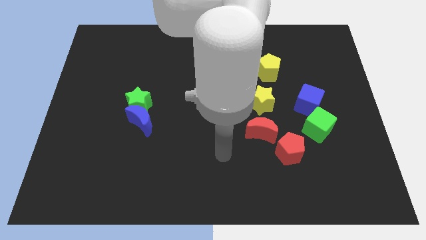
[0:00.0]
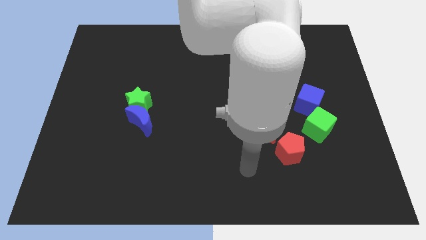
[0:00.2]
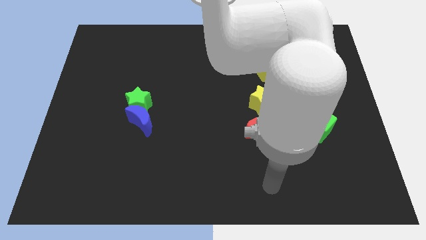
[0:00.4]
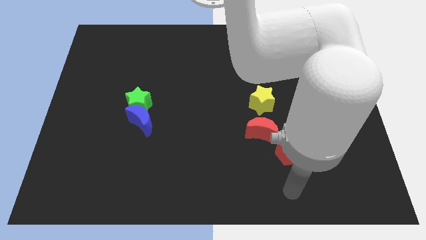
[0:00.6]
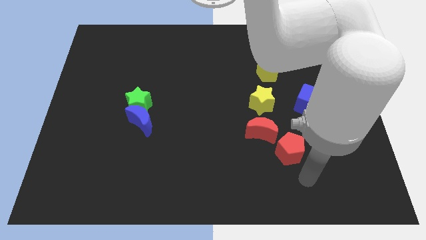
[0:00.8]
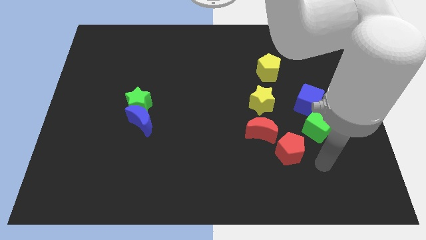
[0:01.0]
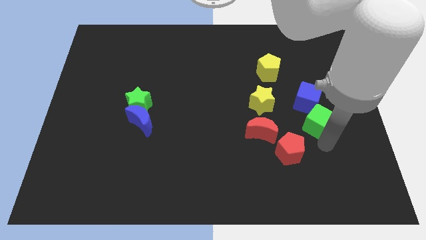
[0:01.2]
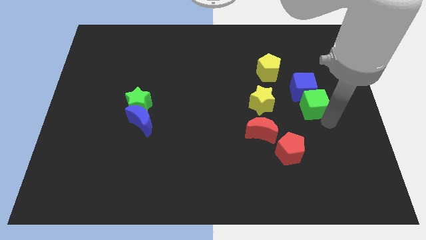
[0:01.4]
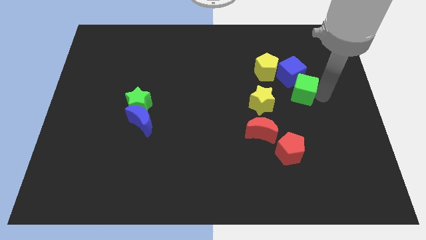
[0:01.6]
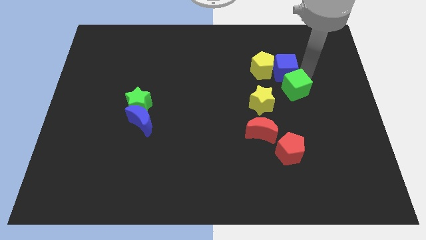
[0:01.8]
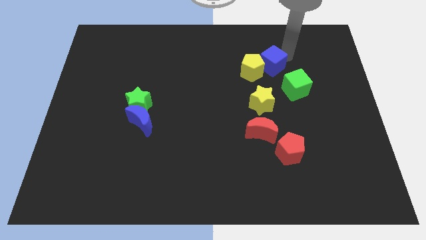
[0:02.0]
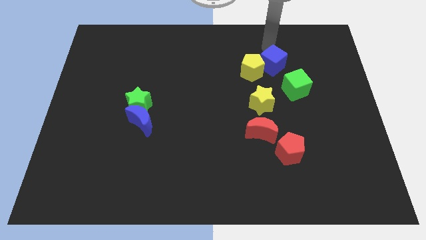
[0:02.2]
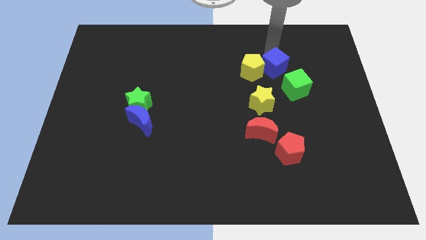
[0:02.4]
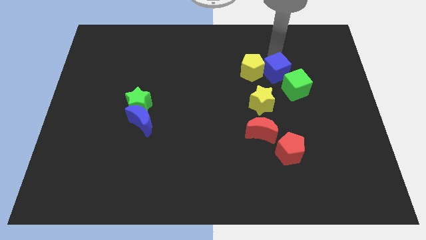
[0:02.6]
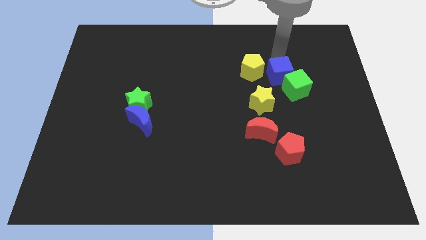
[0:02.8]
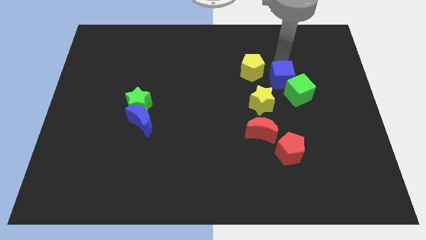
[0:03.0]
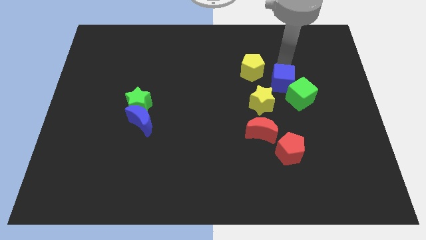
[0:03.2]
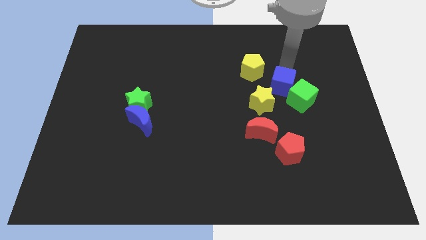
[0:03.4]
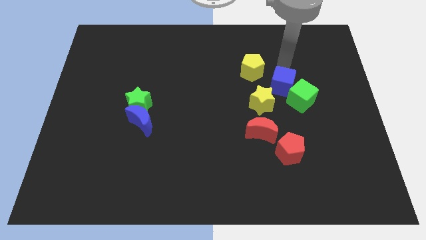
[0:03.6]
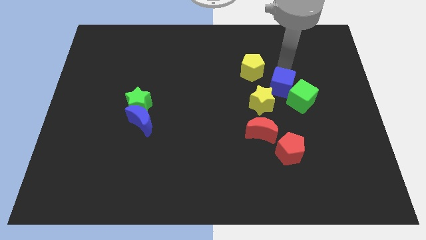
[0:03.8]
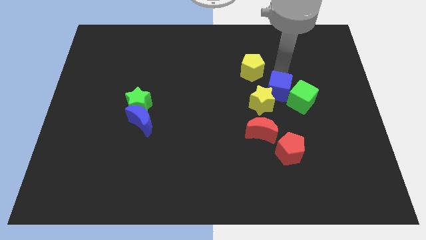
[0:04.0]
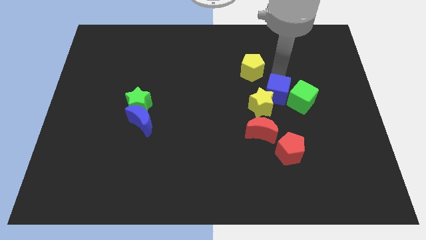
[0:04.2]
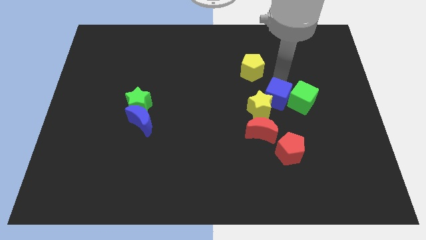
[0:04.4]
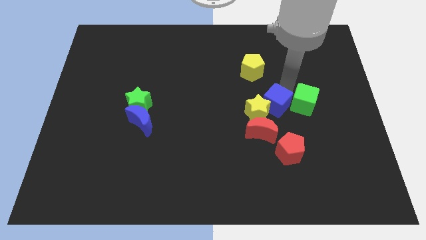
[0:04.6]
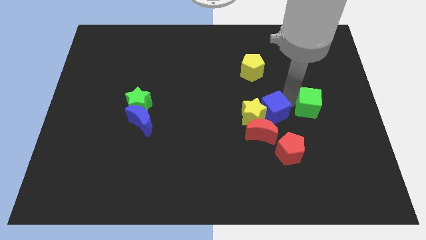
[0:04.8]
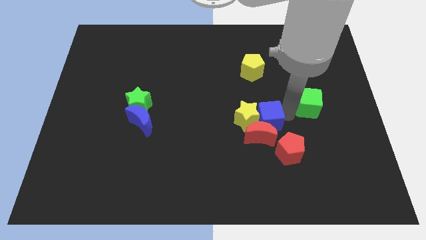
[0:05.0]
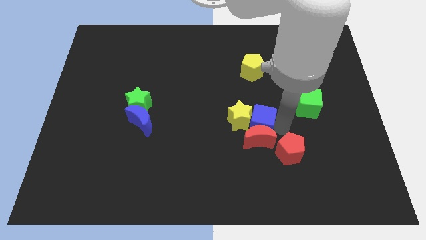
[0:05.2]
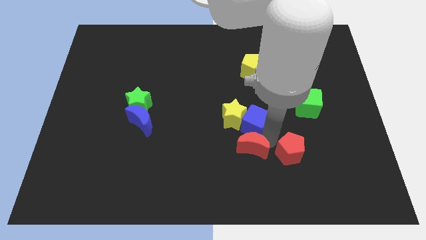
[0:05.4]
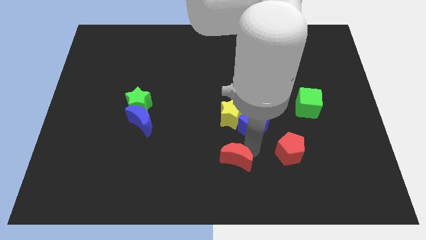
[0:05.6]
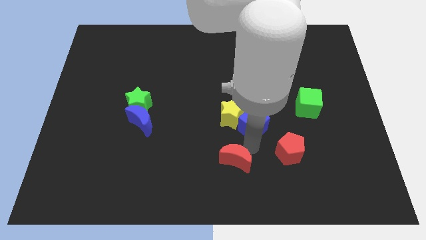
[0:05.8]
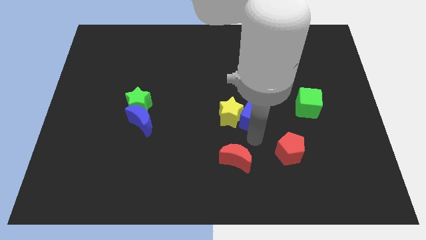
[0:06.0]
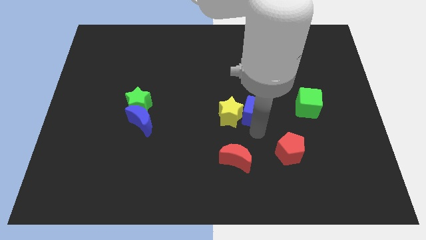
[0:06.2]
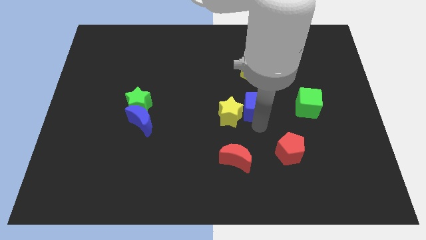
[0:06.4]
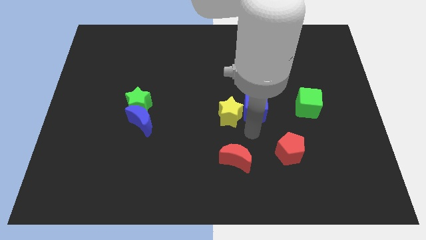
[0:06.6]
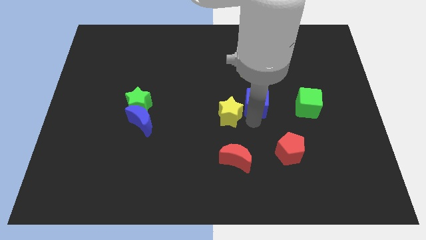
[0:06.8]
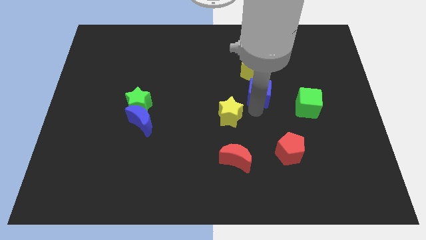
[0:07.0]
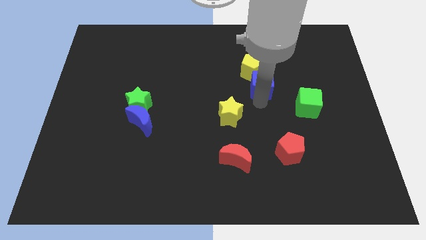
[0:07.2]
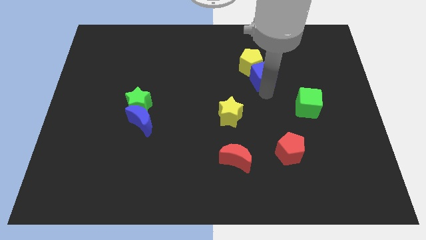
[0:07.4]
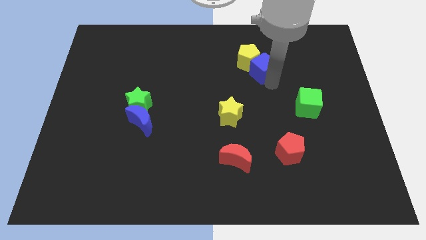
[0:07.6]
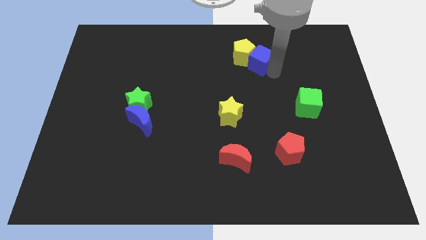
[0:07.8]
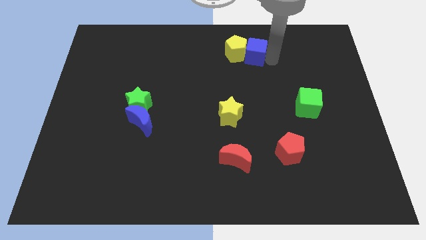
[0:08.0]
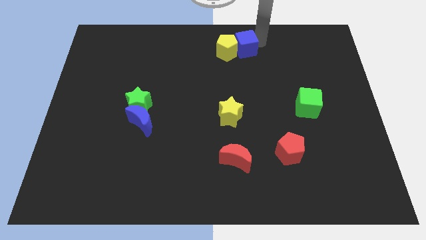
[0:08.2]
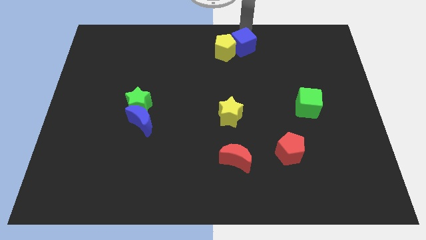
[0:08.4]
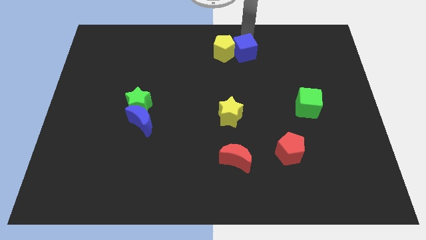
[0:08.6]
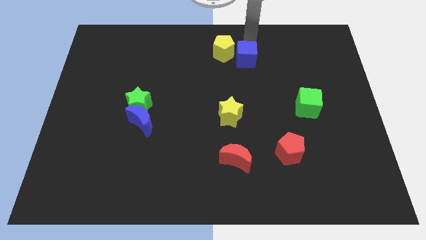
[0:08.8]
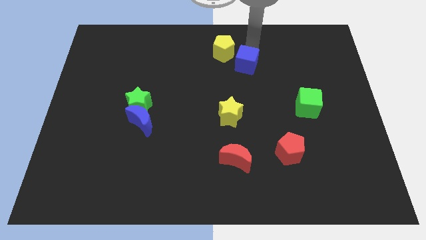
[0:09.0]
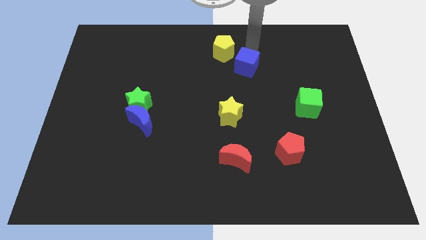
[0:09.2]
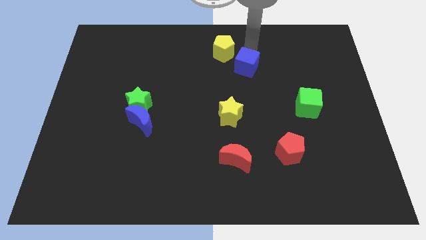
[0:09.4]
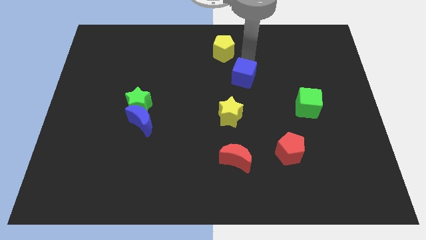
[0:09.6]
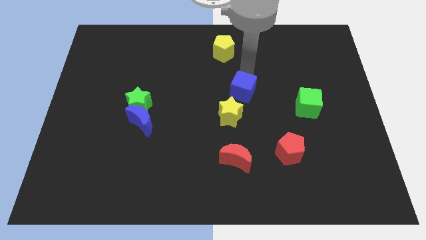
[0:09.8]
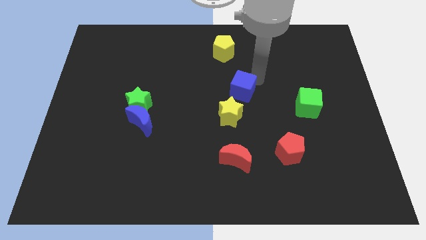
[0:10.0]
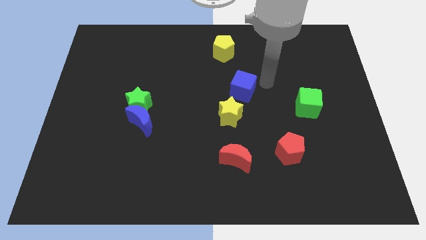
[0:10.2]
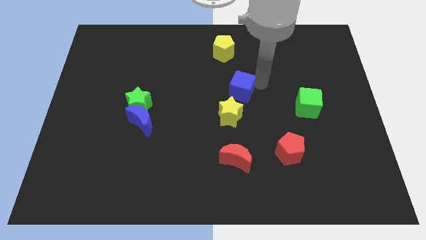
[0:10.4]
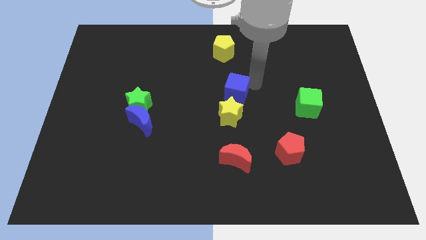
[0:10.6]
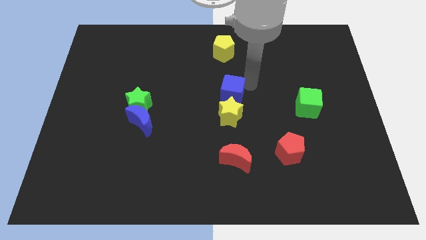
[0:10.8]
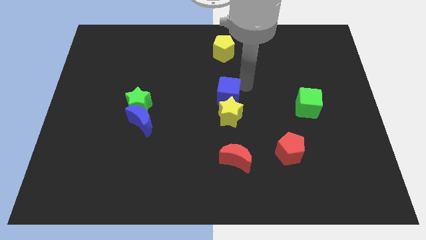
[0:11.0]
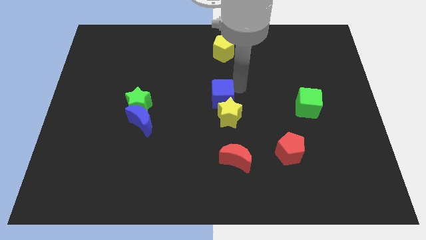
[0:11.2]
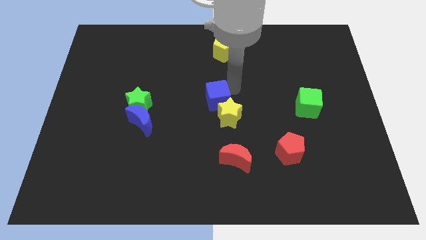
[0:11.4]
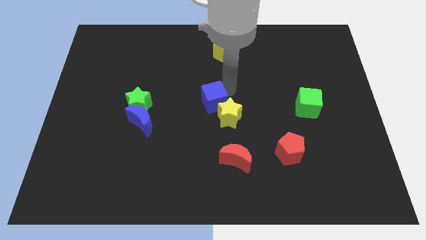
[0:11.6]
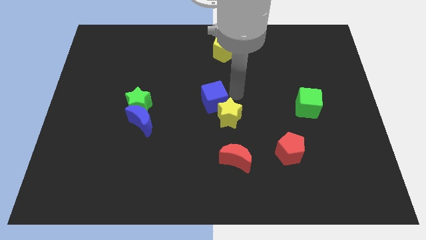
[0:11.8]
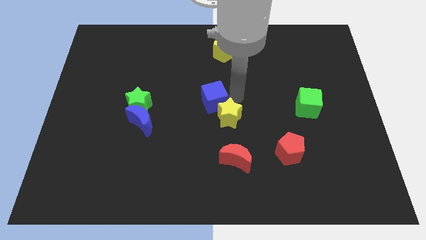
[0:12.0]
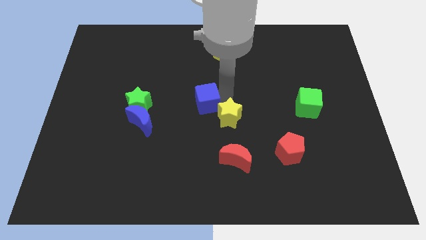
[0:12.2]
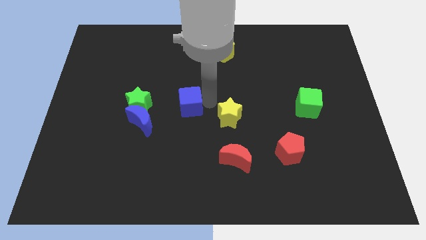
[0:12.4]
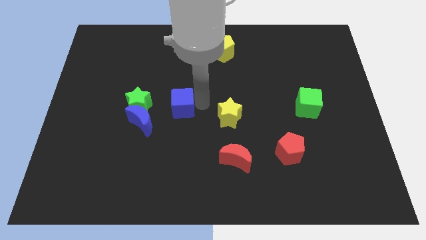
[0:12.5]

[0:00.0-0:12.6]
slide the blue cube diagonally up and to the right of the blue moon

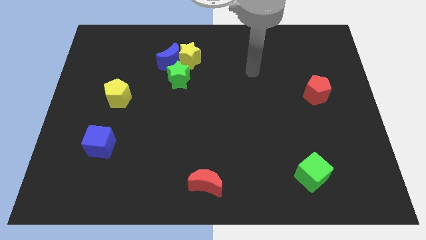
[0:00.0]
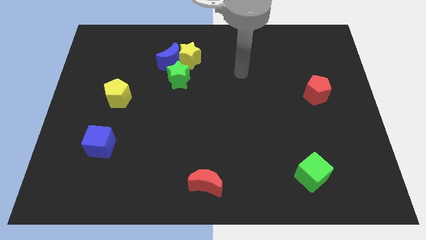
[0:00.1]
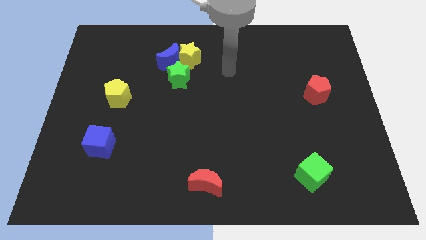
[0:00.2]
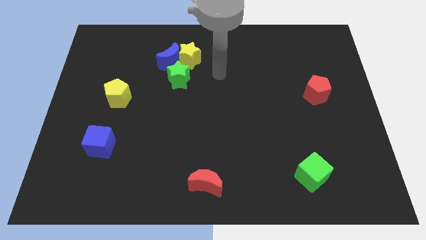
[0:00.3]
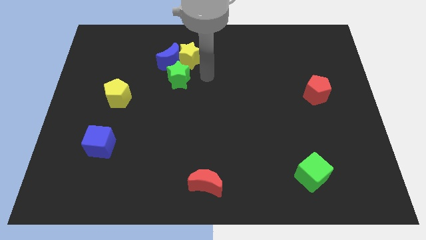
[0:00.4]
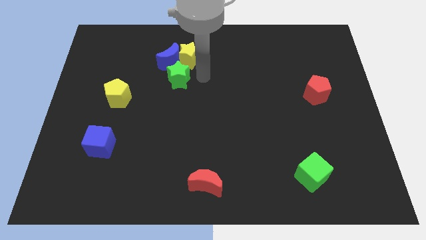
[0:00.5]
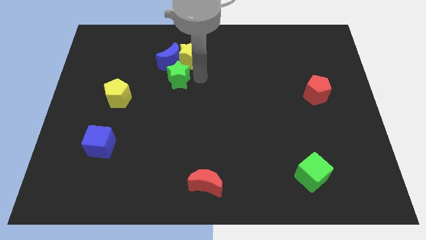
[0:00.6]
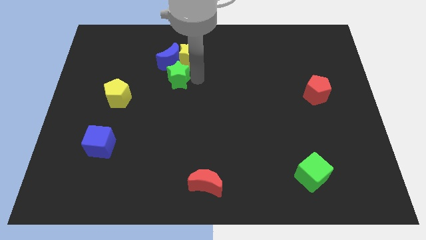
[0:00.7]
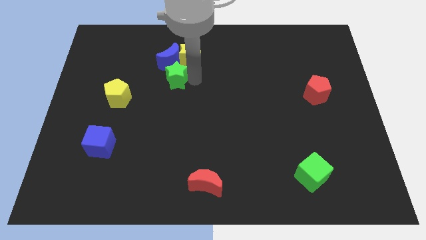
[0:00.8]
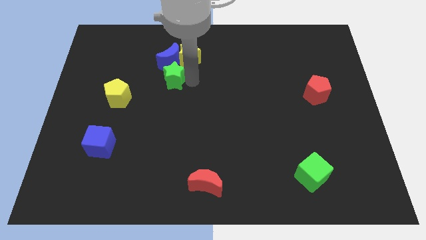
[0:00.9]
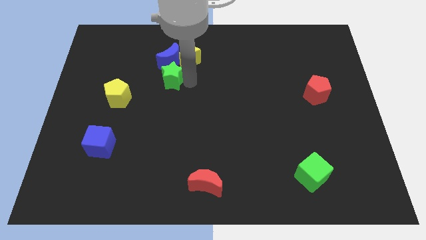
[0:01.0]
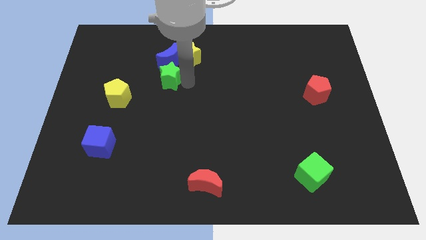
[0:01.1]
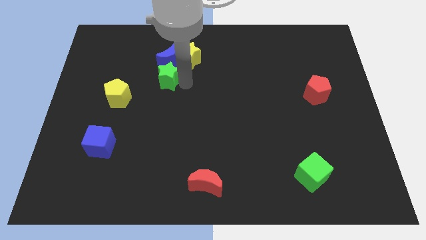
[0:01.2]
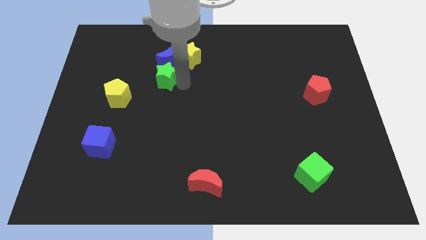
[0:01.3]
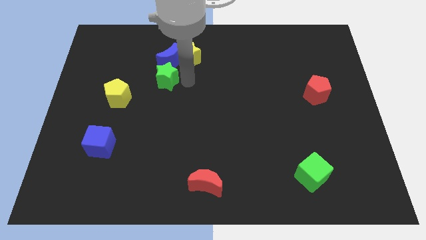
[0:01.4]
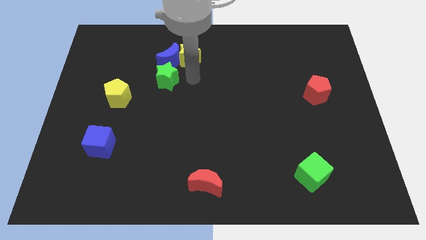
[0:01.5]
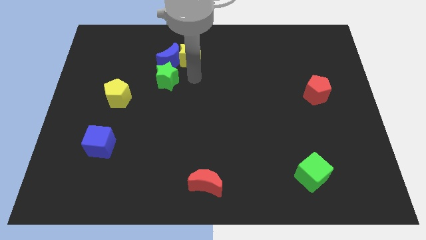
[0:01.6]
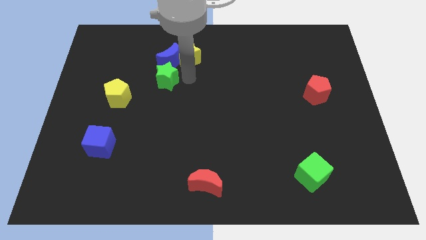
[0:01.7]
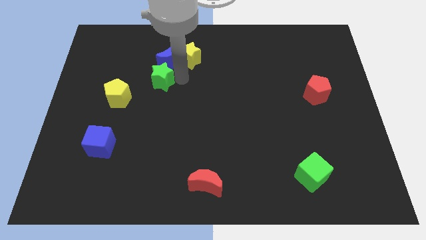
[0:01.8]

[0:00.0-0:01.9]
slide the green star to the top right of the yellow pentagon
